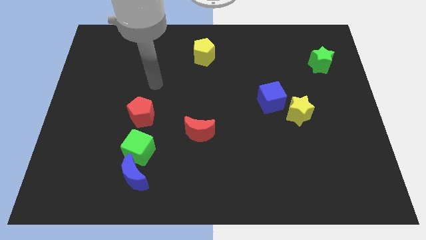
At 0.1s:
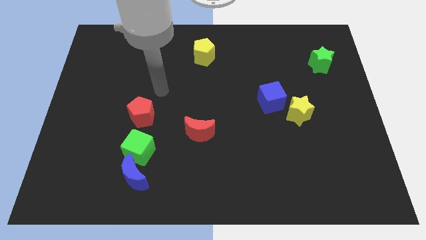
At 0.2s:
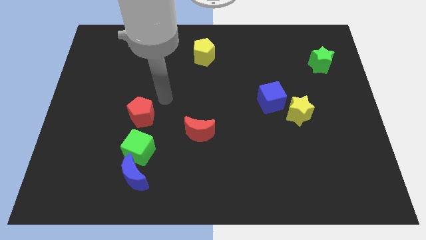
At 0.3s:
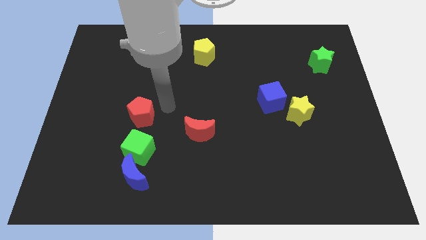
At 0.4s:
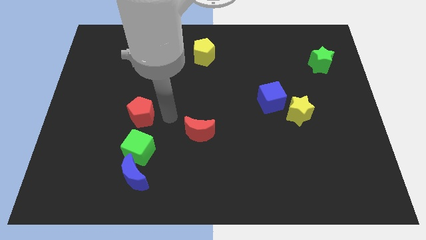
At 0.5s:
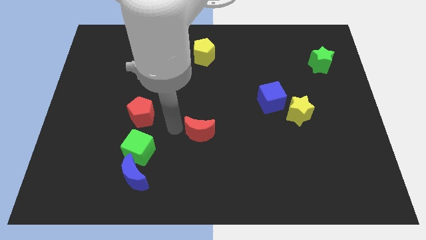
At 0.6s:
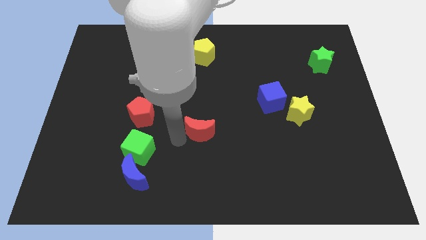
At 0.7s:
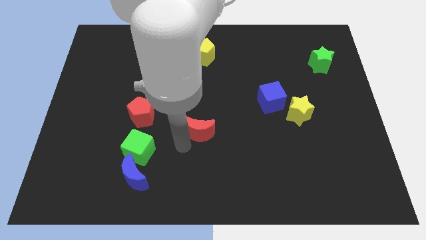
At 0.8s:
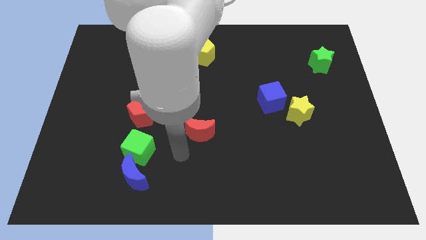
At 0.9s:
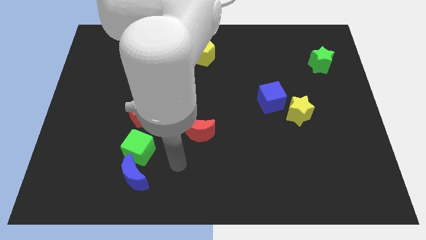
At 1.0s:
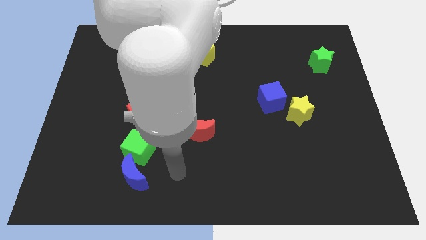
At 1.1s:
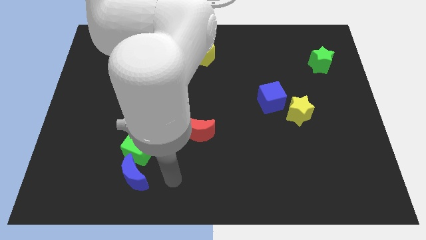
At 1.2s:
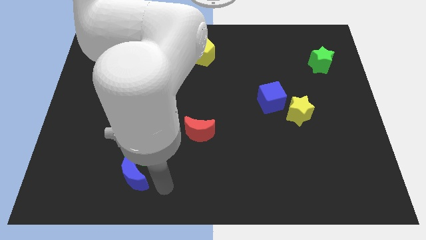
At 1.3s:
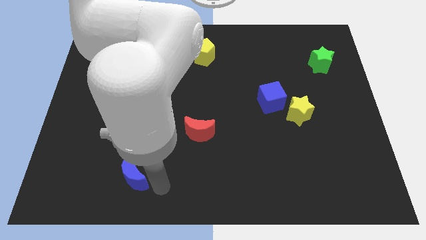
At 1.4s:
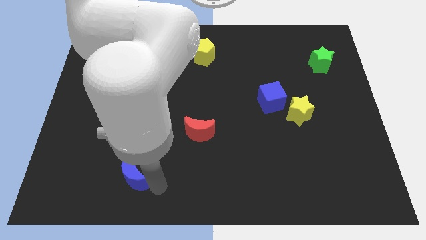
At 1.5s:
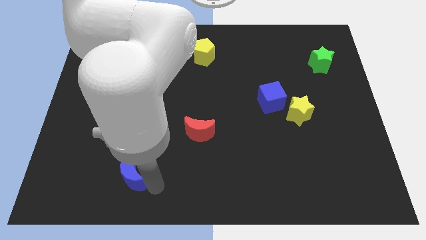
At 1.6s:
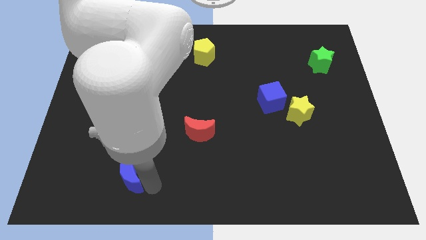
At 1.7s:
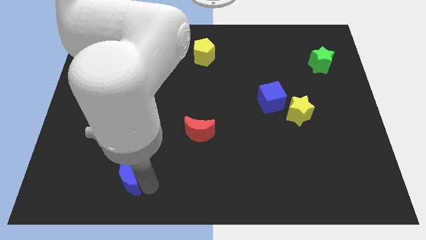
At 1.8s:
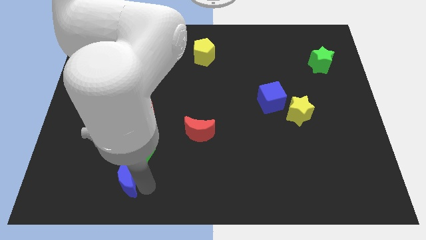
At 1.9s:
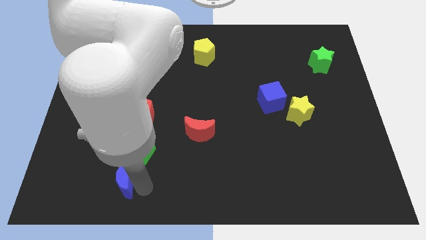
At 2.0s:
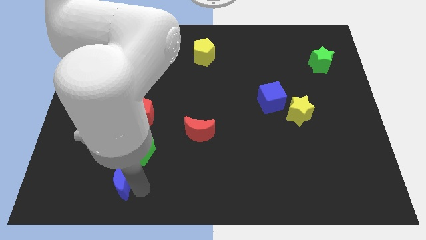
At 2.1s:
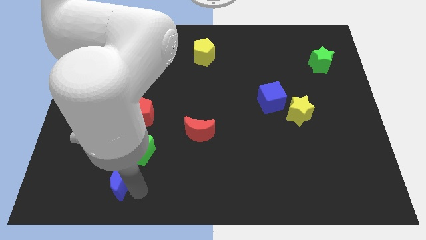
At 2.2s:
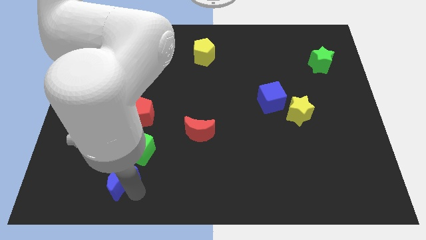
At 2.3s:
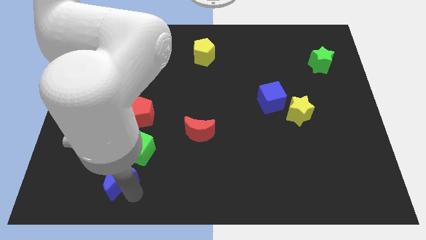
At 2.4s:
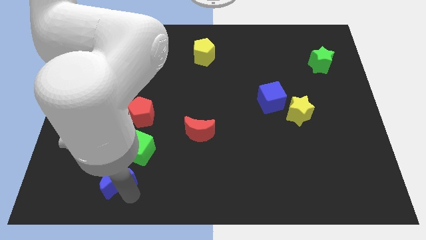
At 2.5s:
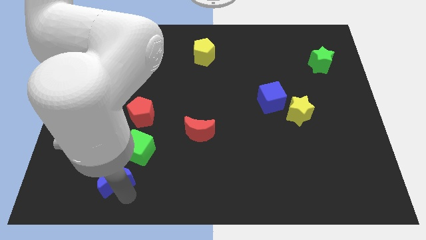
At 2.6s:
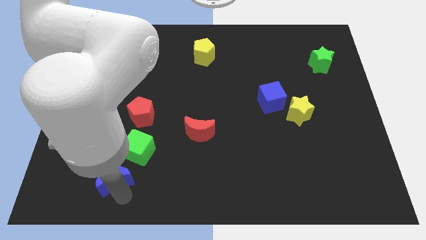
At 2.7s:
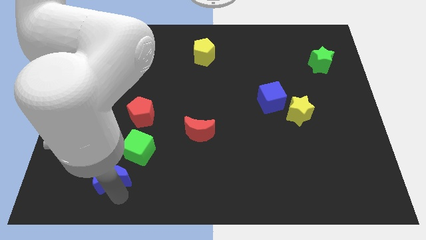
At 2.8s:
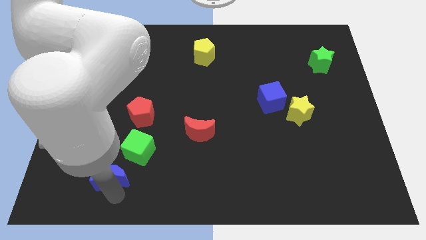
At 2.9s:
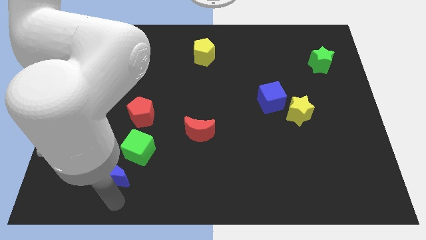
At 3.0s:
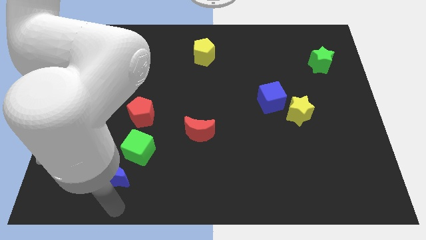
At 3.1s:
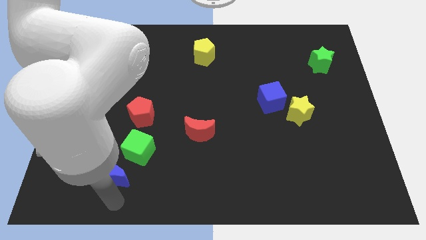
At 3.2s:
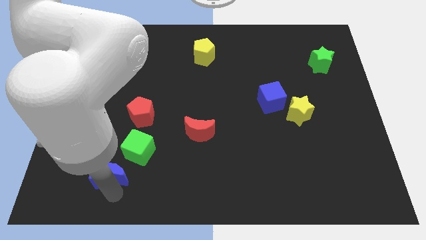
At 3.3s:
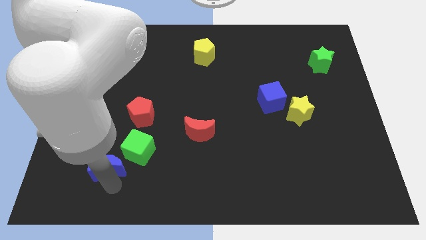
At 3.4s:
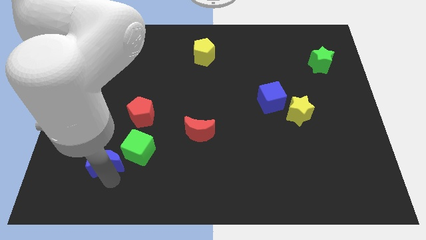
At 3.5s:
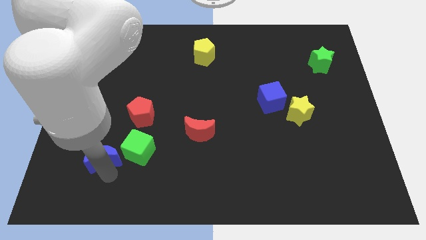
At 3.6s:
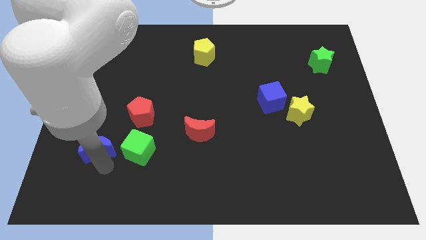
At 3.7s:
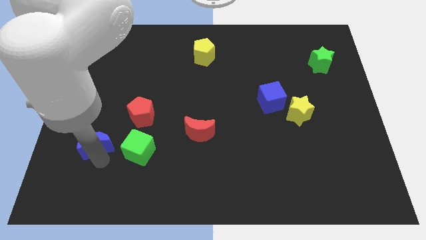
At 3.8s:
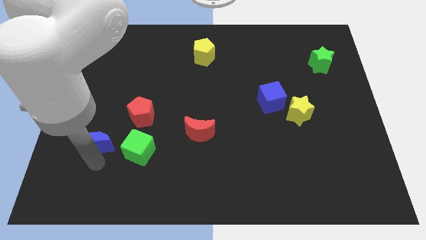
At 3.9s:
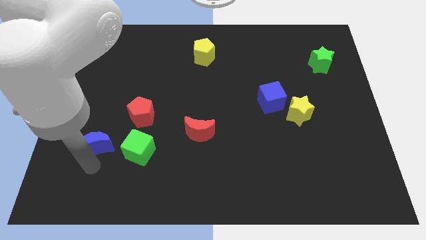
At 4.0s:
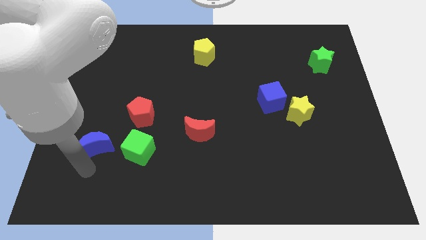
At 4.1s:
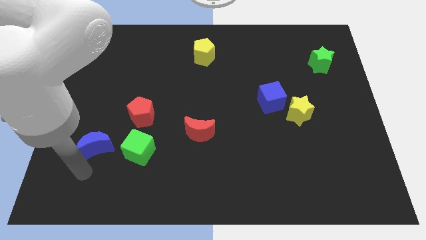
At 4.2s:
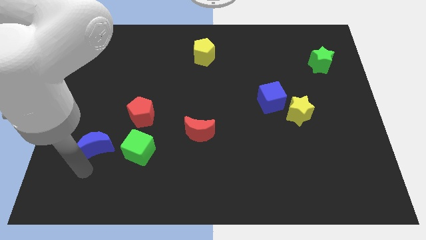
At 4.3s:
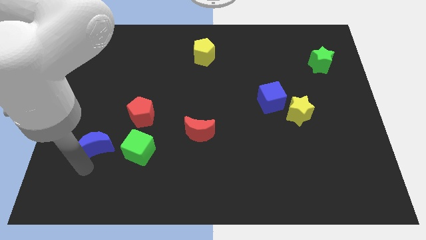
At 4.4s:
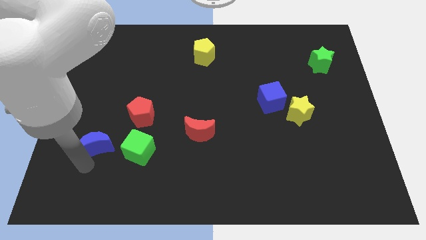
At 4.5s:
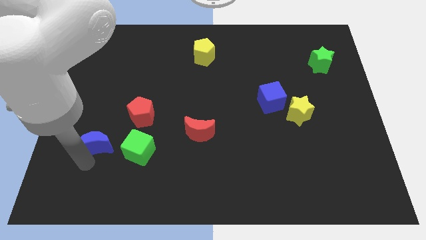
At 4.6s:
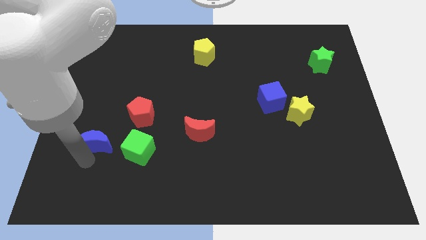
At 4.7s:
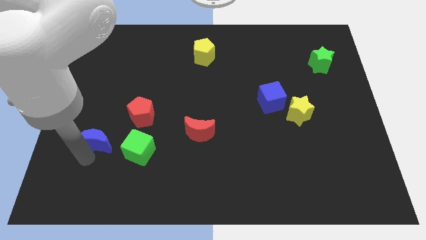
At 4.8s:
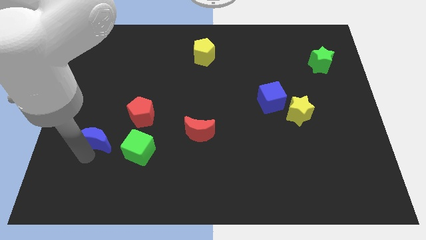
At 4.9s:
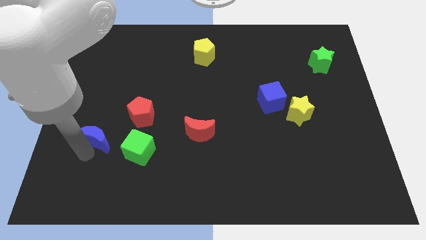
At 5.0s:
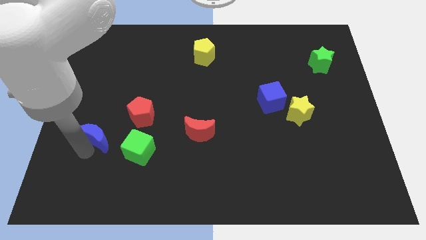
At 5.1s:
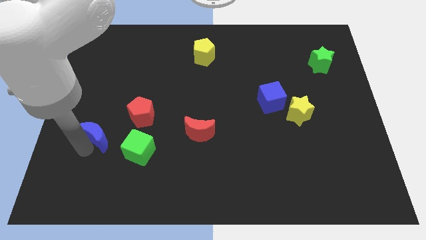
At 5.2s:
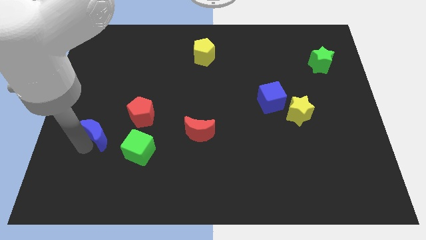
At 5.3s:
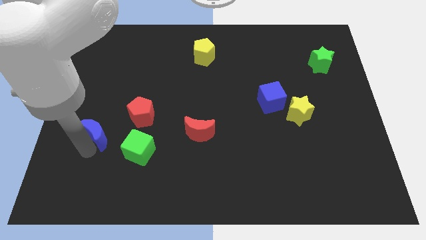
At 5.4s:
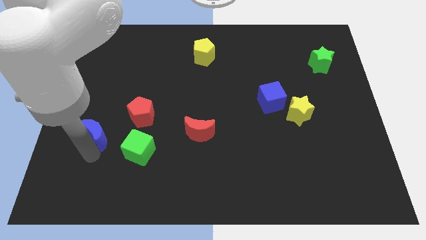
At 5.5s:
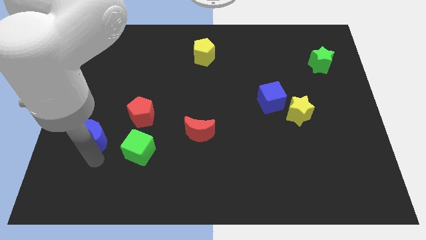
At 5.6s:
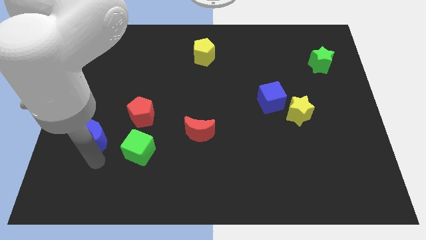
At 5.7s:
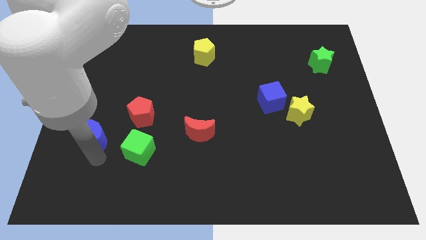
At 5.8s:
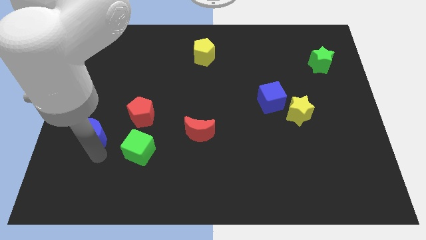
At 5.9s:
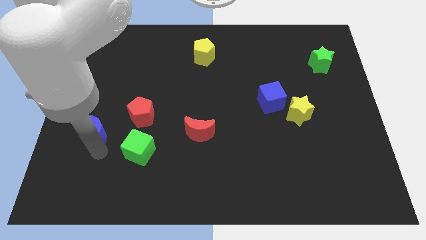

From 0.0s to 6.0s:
slide the blue moon to the left of the red pentagon

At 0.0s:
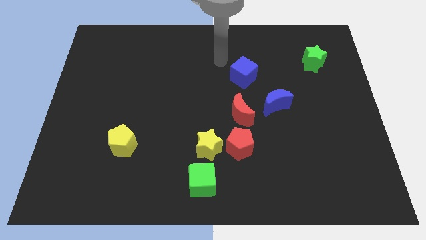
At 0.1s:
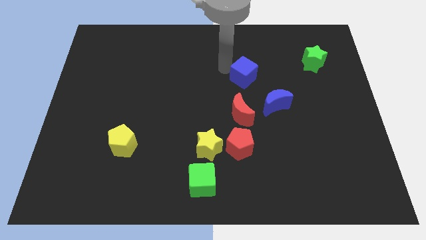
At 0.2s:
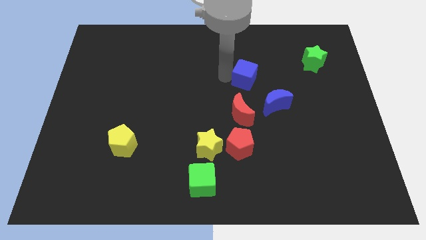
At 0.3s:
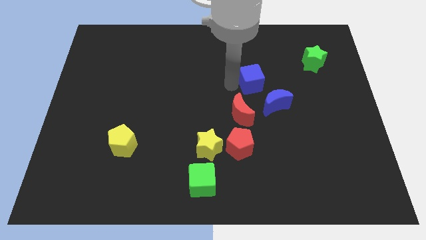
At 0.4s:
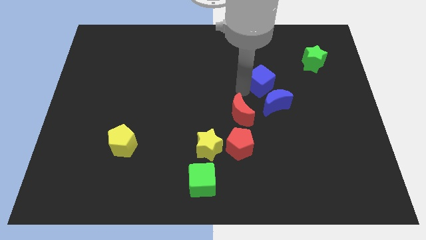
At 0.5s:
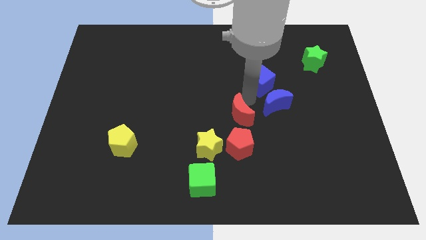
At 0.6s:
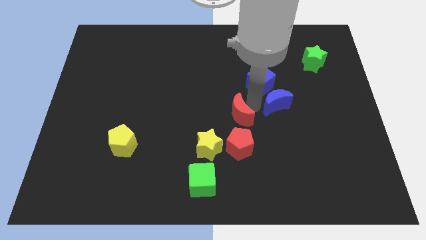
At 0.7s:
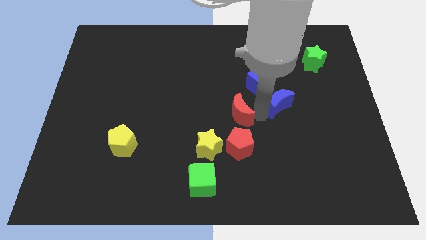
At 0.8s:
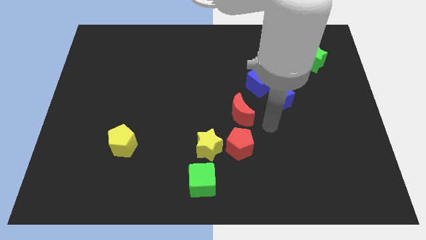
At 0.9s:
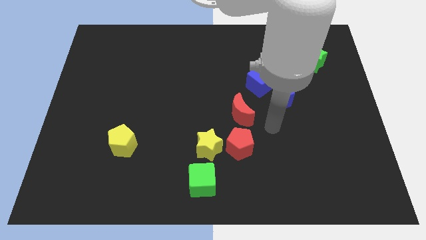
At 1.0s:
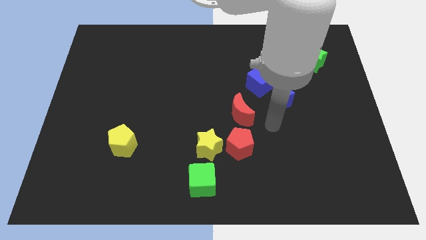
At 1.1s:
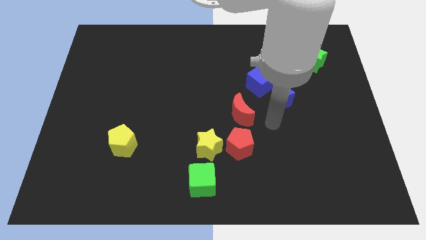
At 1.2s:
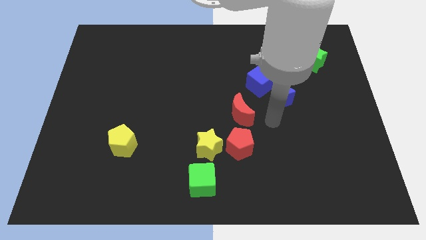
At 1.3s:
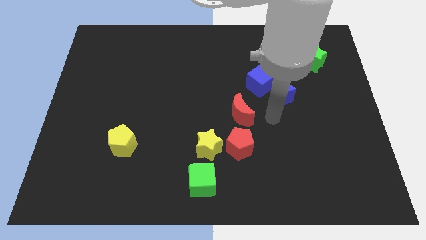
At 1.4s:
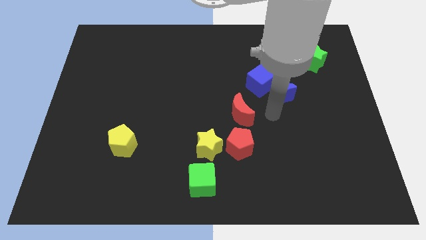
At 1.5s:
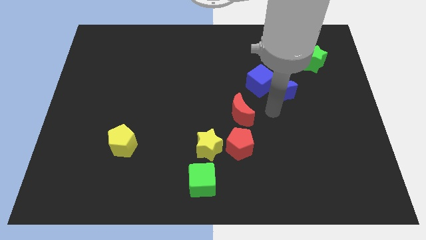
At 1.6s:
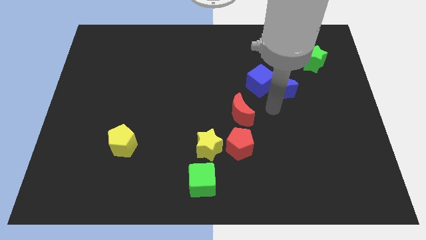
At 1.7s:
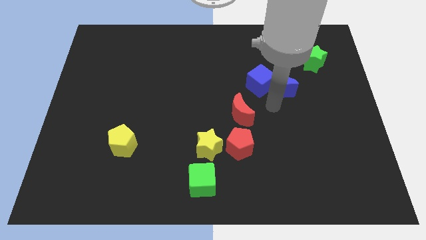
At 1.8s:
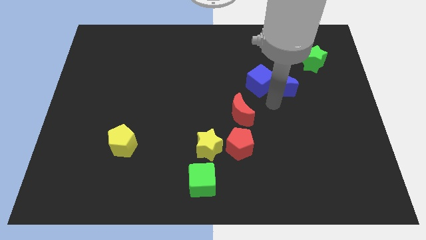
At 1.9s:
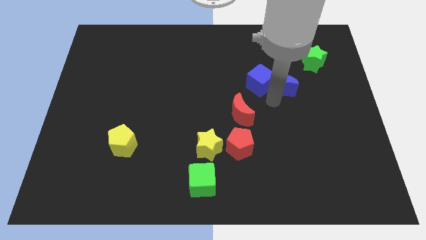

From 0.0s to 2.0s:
put the blue moon diagonally down and to the left of the green star
